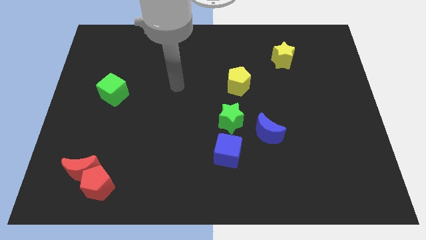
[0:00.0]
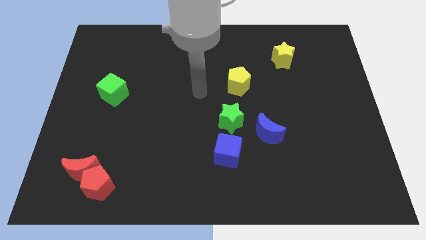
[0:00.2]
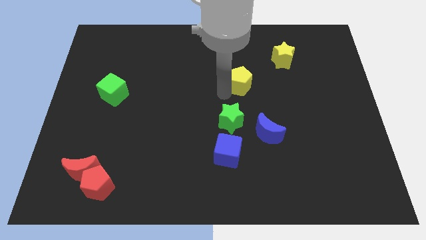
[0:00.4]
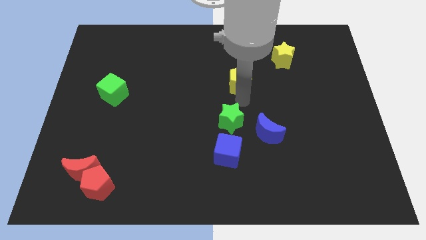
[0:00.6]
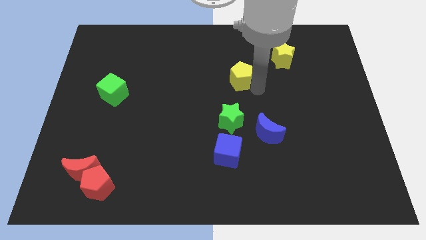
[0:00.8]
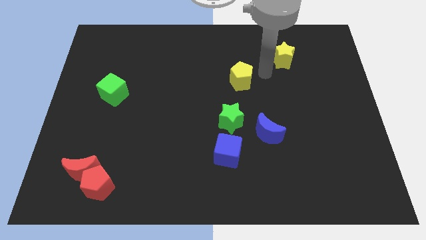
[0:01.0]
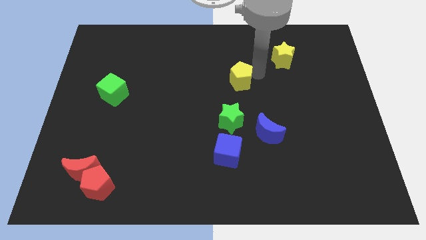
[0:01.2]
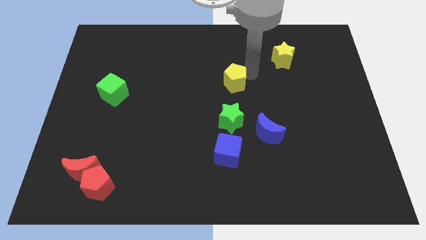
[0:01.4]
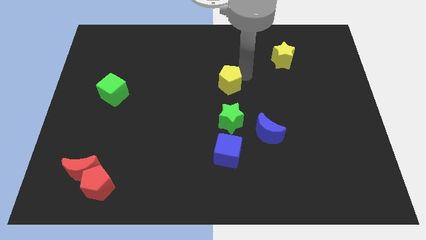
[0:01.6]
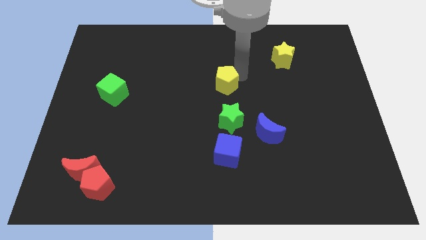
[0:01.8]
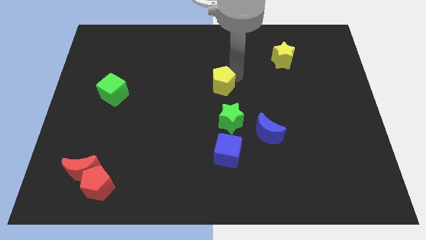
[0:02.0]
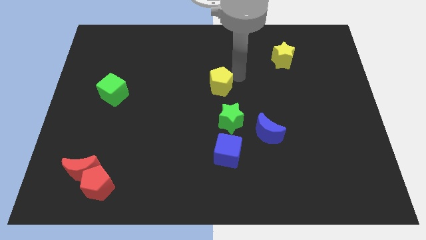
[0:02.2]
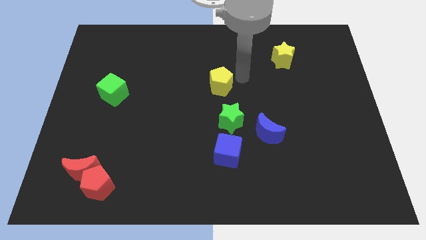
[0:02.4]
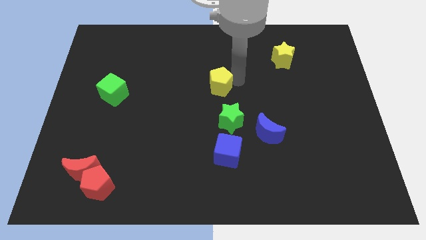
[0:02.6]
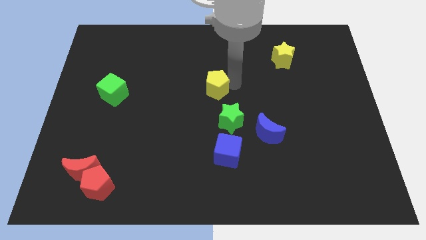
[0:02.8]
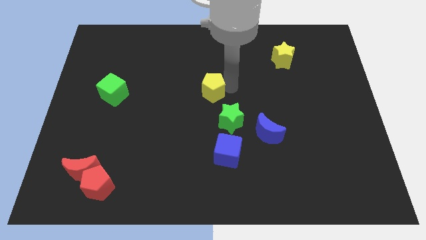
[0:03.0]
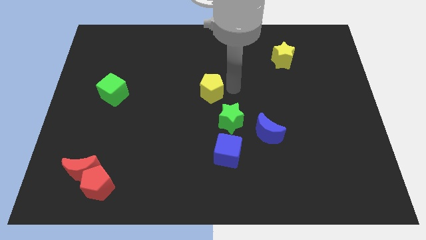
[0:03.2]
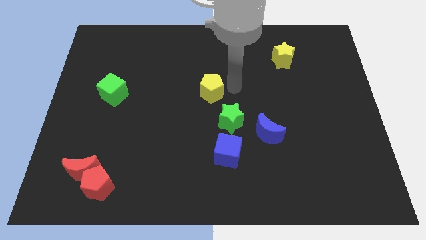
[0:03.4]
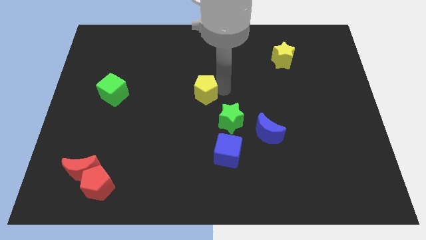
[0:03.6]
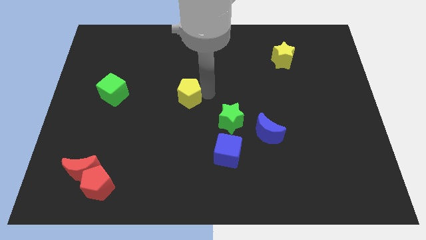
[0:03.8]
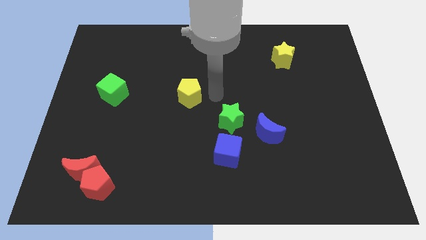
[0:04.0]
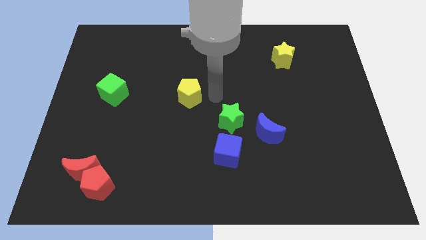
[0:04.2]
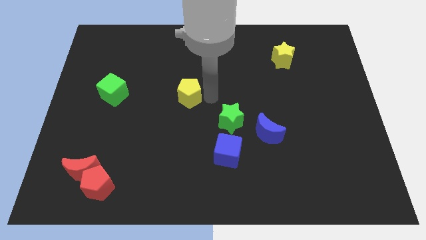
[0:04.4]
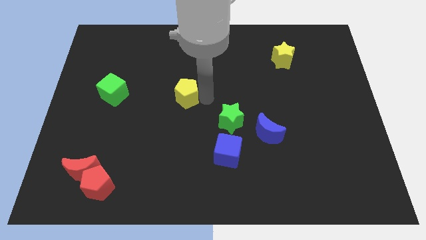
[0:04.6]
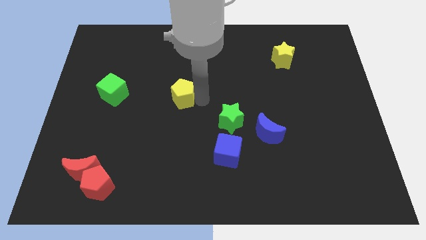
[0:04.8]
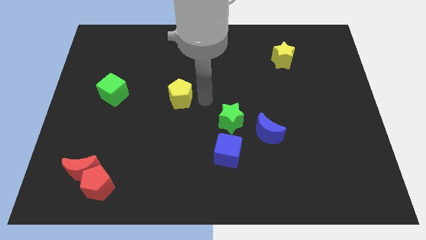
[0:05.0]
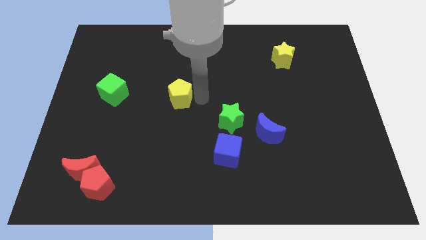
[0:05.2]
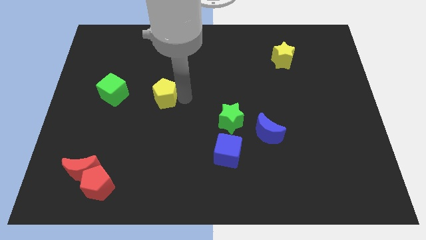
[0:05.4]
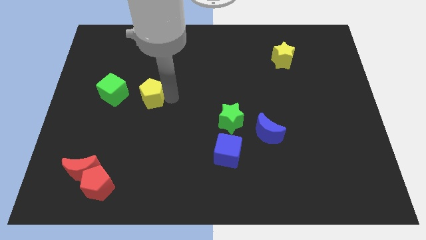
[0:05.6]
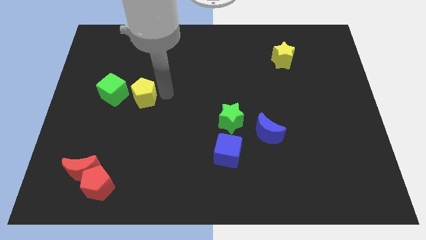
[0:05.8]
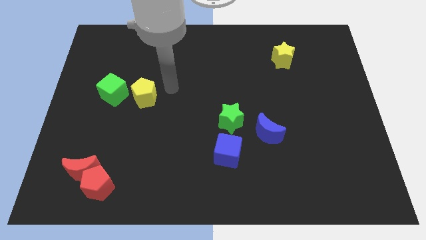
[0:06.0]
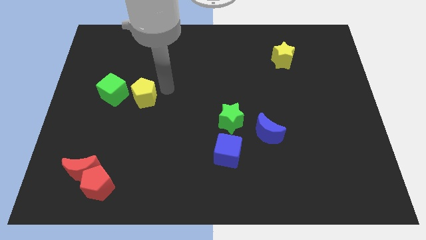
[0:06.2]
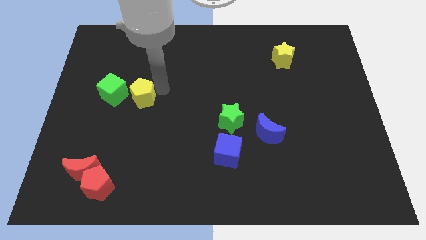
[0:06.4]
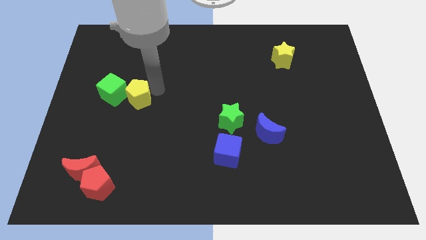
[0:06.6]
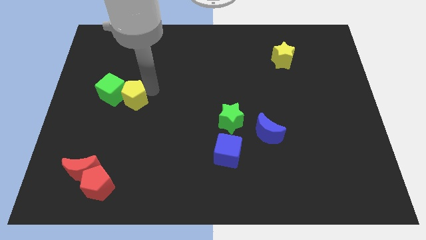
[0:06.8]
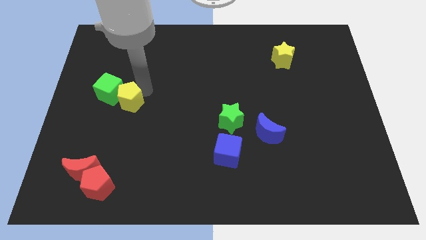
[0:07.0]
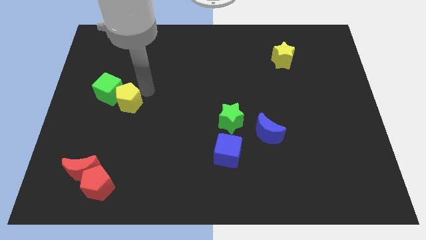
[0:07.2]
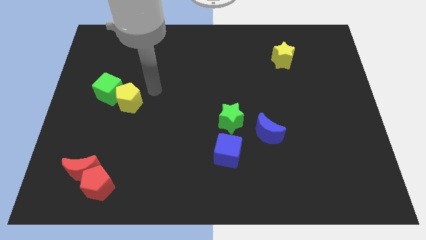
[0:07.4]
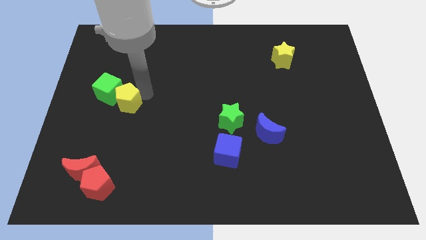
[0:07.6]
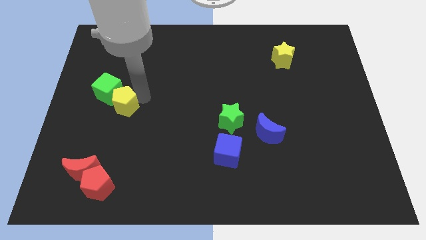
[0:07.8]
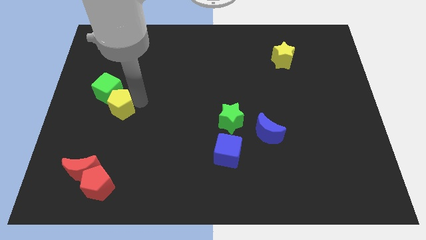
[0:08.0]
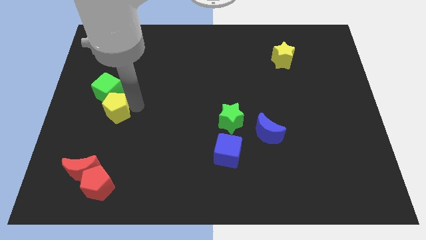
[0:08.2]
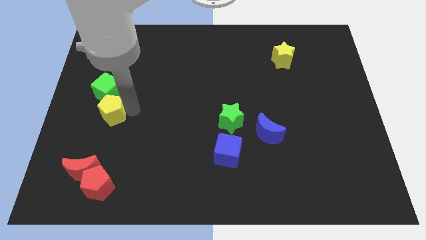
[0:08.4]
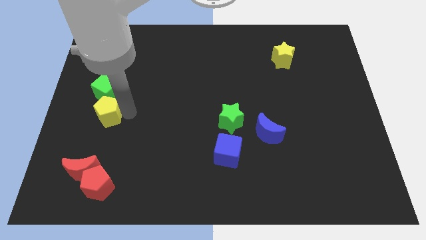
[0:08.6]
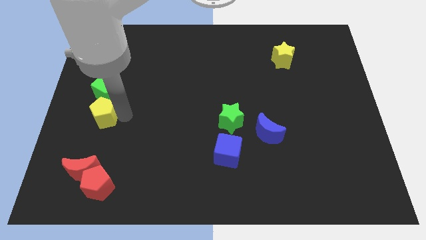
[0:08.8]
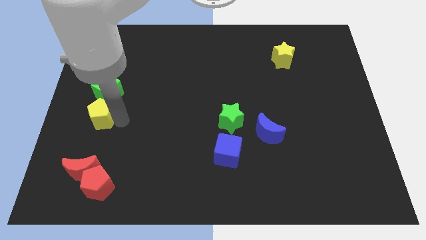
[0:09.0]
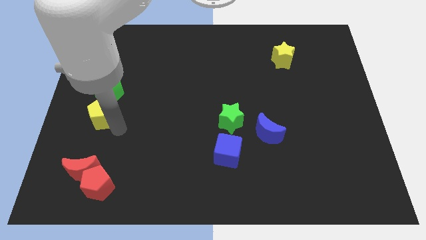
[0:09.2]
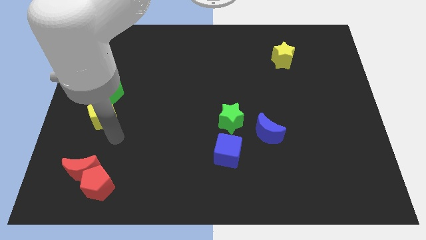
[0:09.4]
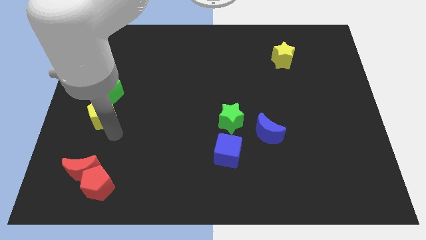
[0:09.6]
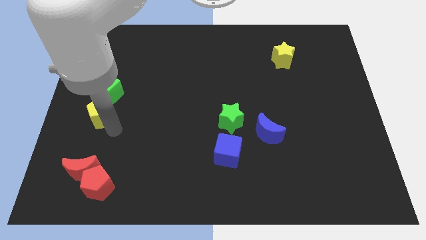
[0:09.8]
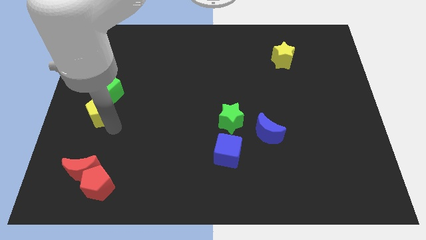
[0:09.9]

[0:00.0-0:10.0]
slide the yellow pentagon to the left side

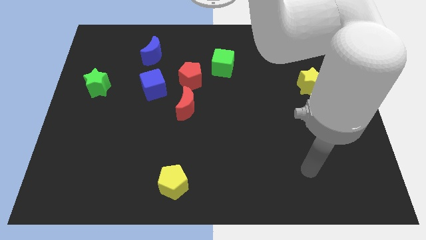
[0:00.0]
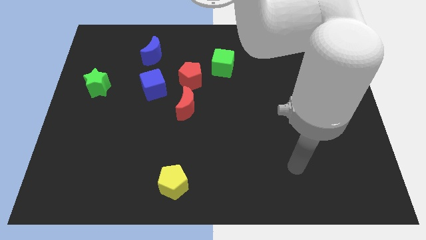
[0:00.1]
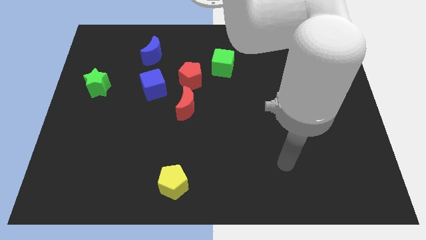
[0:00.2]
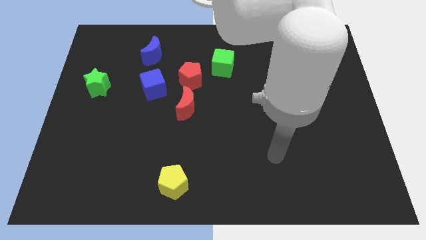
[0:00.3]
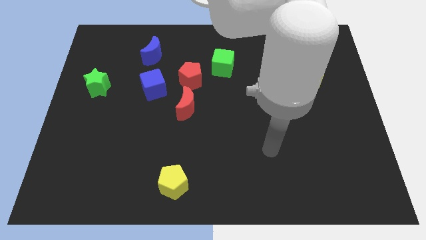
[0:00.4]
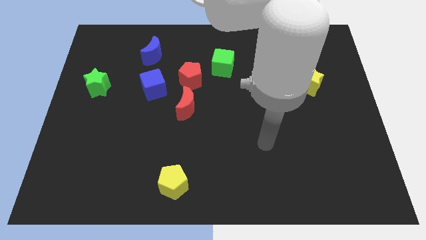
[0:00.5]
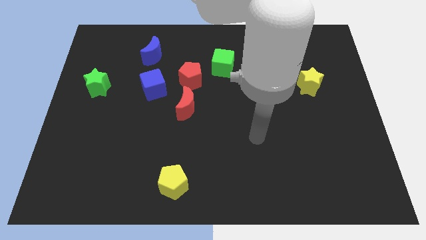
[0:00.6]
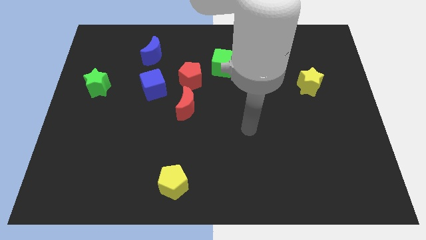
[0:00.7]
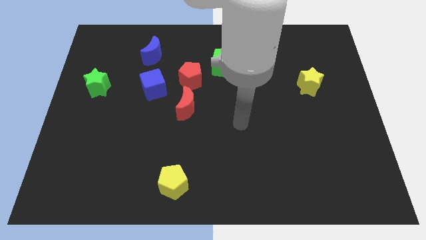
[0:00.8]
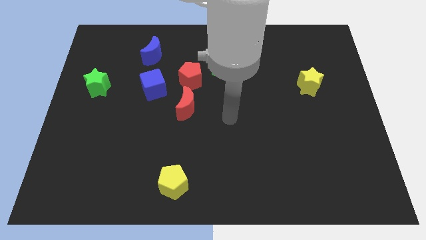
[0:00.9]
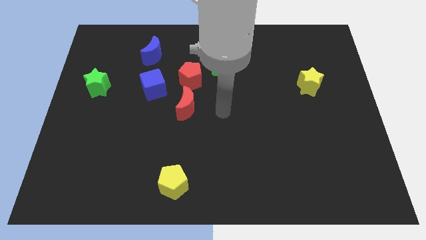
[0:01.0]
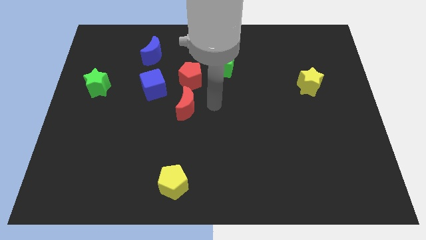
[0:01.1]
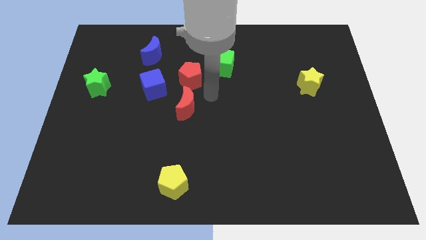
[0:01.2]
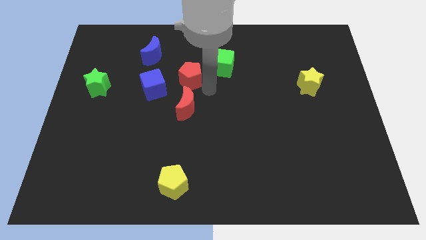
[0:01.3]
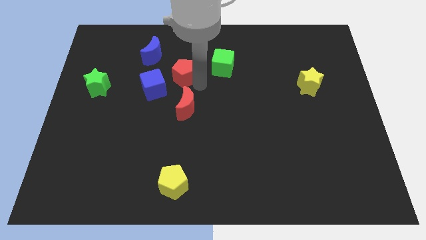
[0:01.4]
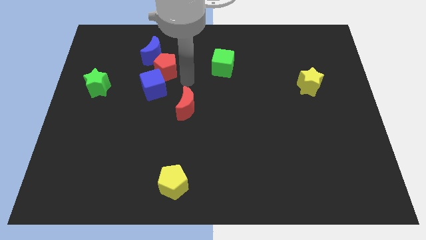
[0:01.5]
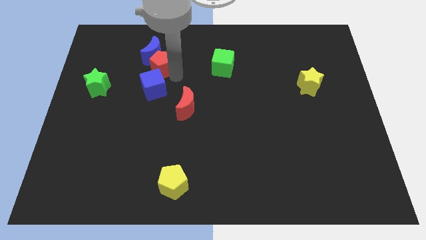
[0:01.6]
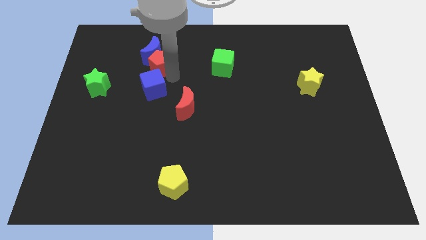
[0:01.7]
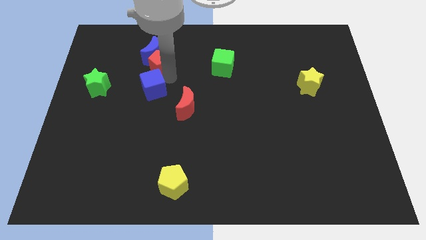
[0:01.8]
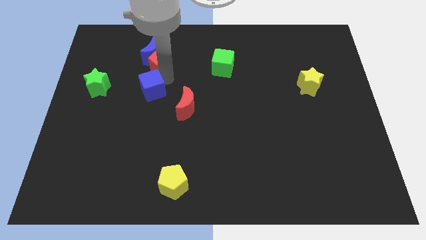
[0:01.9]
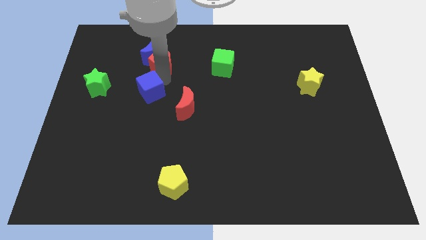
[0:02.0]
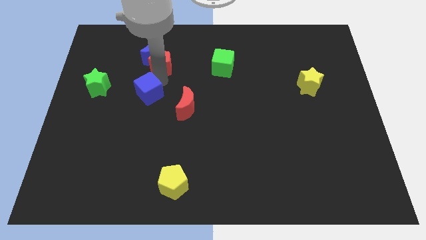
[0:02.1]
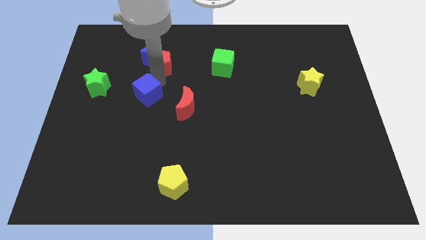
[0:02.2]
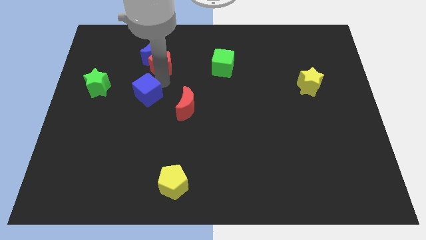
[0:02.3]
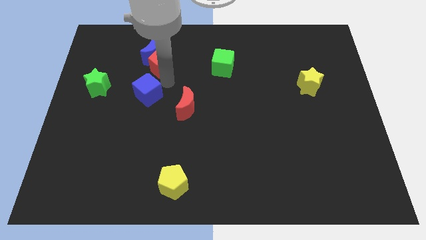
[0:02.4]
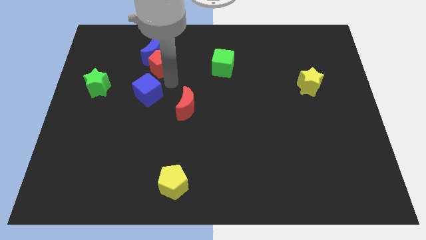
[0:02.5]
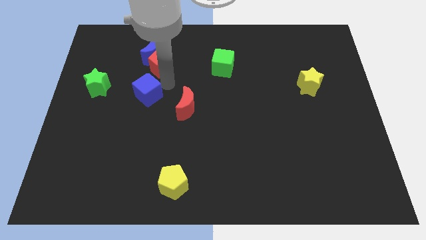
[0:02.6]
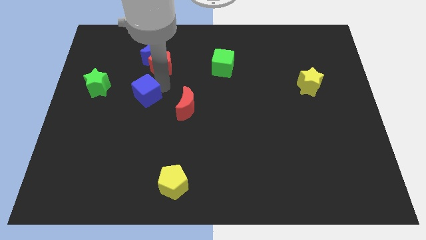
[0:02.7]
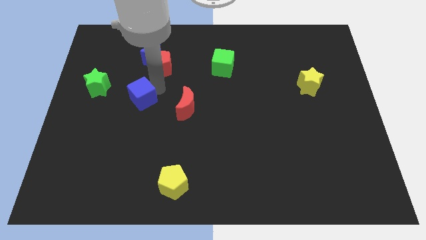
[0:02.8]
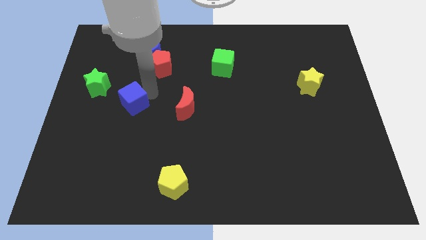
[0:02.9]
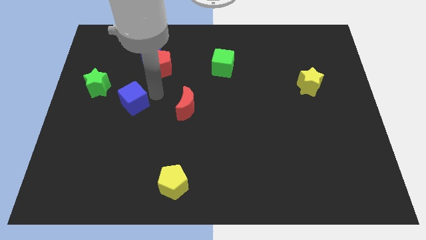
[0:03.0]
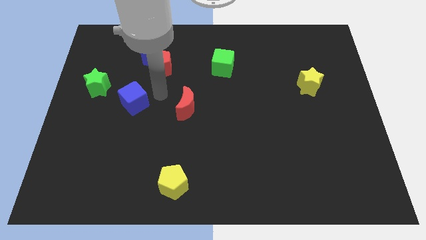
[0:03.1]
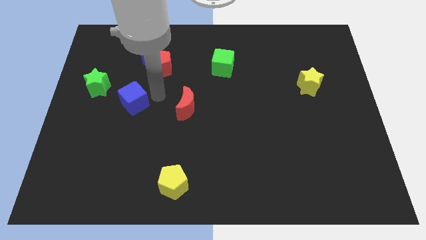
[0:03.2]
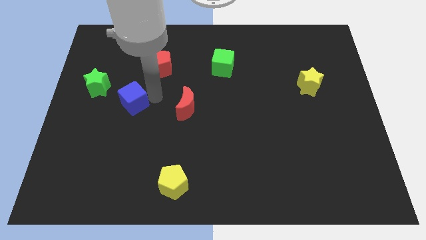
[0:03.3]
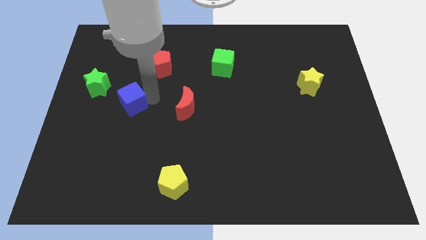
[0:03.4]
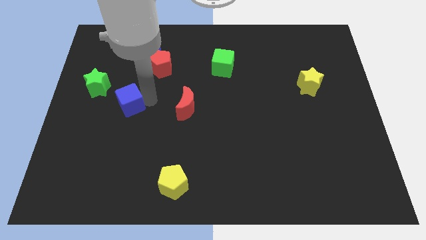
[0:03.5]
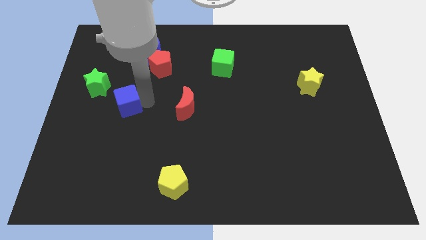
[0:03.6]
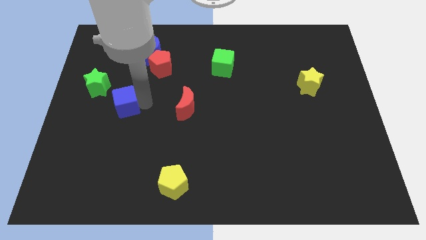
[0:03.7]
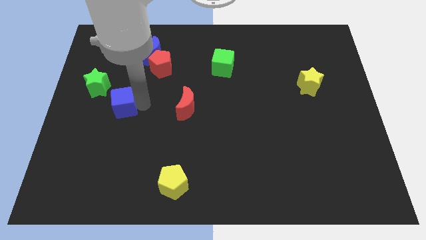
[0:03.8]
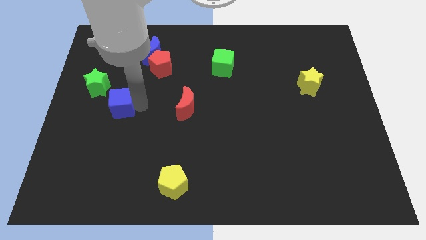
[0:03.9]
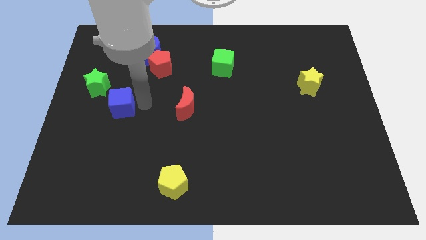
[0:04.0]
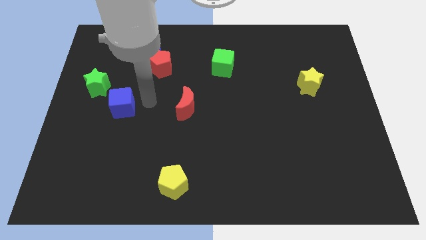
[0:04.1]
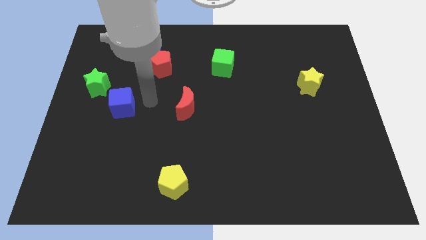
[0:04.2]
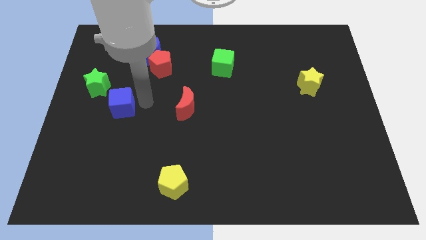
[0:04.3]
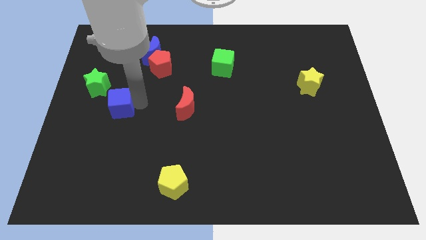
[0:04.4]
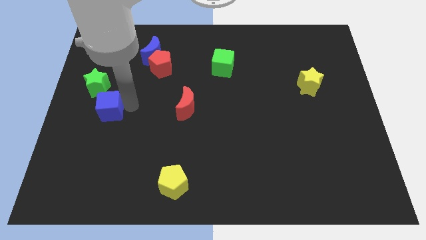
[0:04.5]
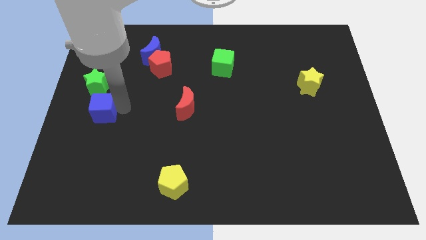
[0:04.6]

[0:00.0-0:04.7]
put the blue cube to the left side of the board
